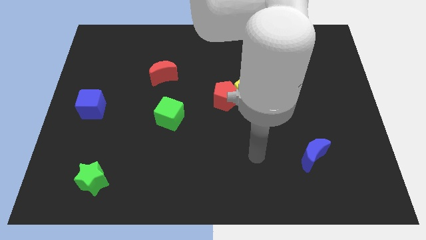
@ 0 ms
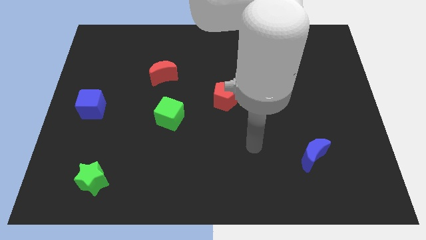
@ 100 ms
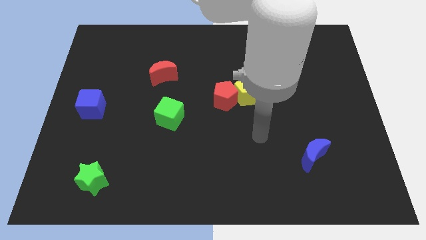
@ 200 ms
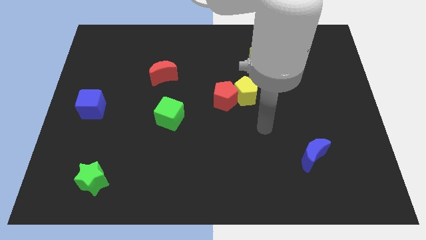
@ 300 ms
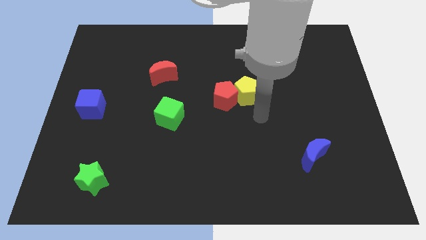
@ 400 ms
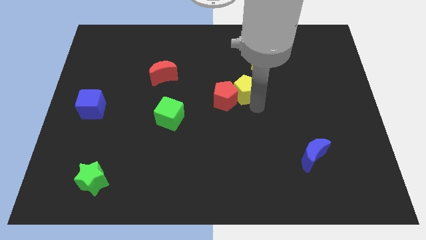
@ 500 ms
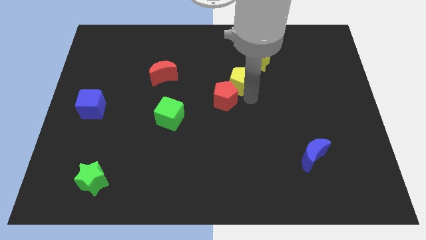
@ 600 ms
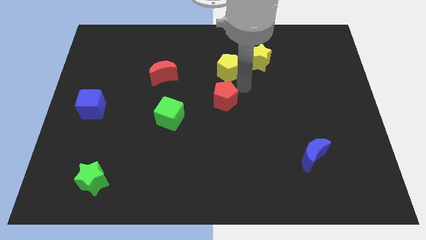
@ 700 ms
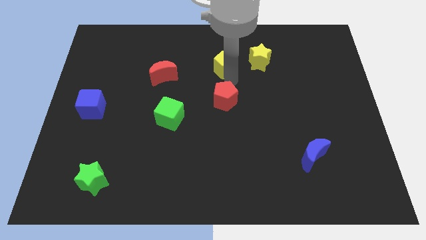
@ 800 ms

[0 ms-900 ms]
separate the red pentagon from the yellow pentagon

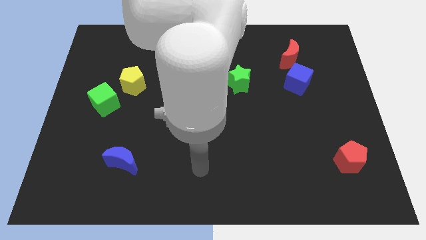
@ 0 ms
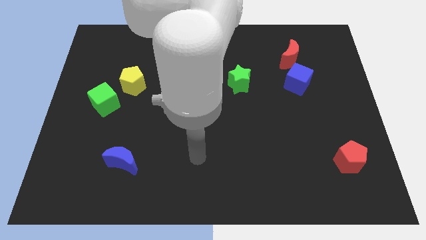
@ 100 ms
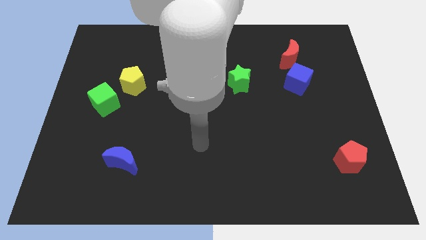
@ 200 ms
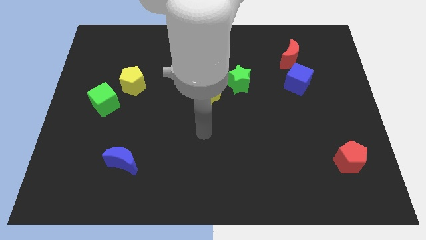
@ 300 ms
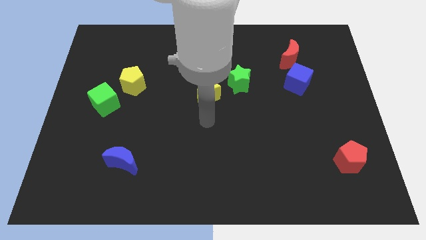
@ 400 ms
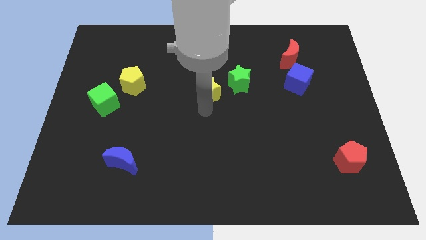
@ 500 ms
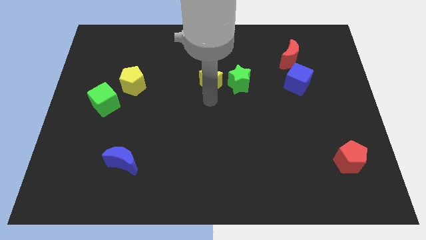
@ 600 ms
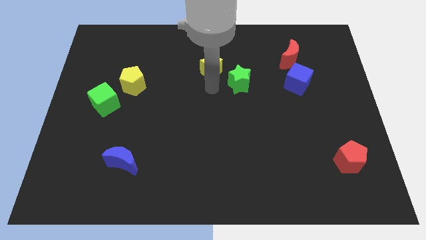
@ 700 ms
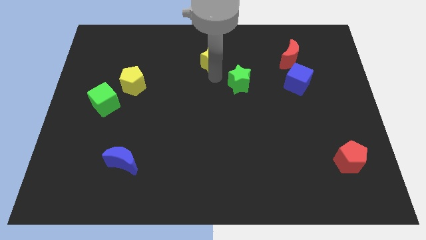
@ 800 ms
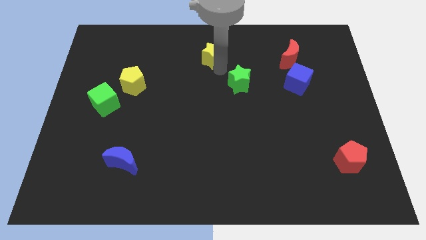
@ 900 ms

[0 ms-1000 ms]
separate the green star from the yellow star

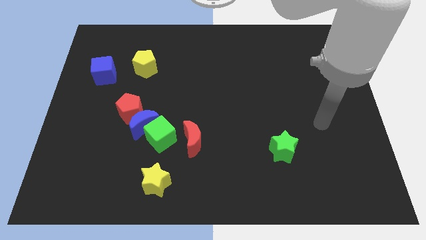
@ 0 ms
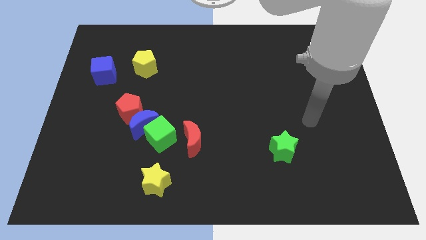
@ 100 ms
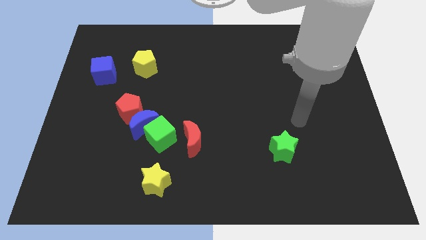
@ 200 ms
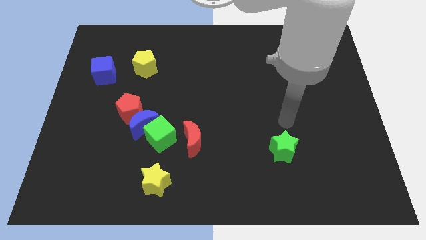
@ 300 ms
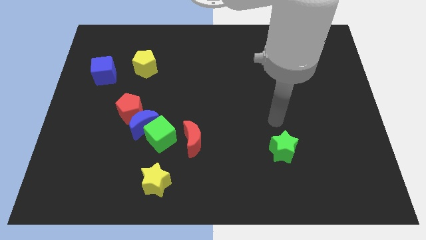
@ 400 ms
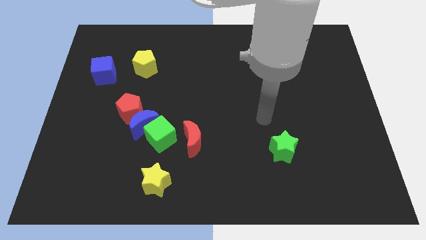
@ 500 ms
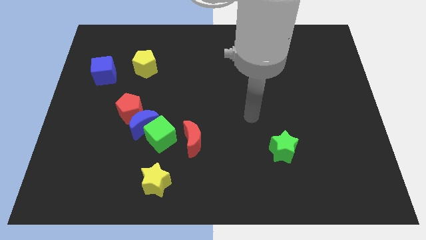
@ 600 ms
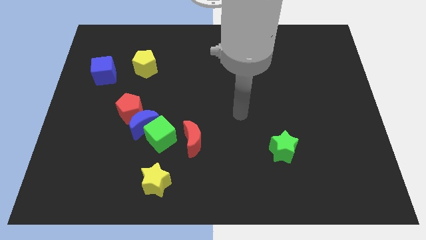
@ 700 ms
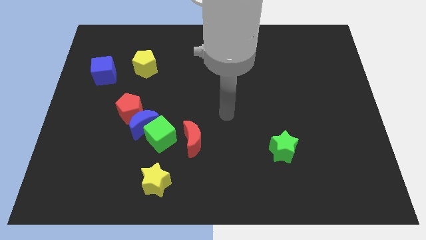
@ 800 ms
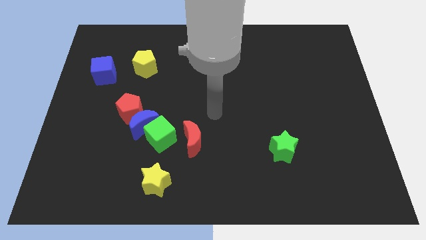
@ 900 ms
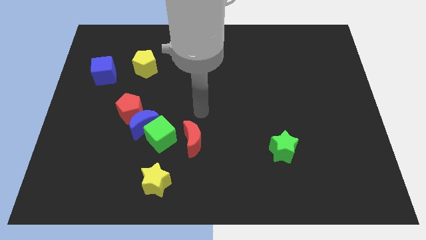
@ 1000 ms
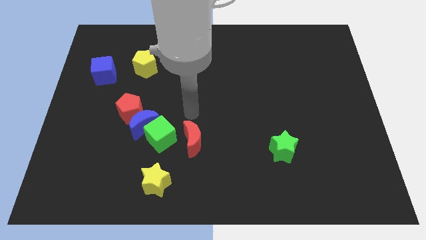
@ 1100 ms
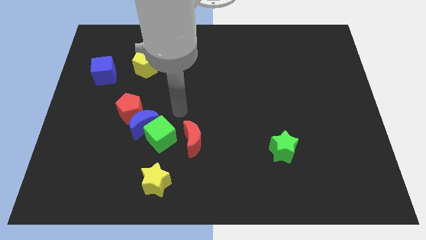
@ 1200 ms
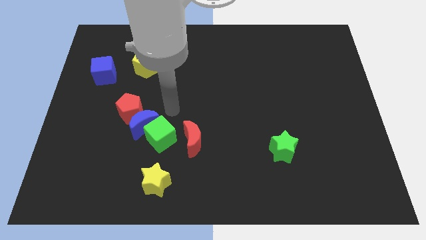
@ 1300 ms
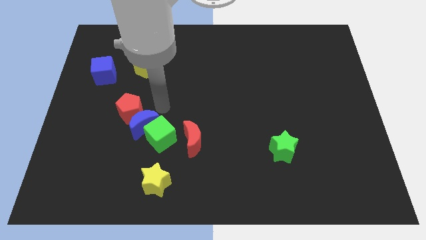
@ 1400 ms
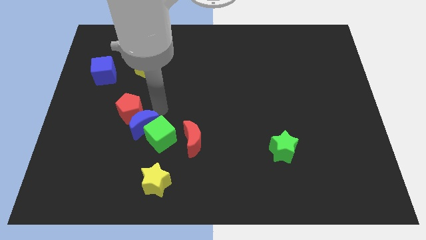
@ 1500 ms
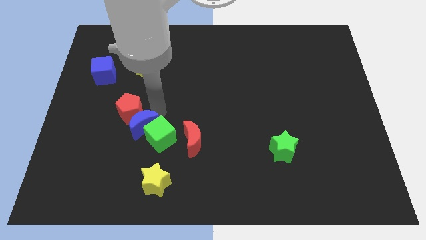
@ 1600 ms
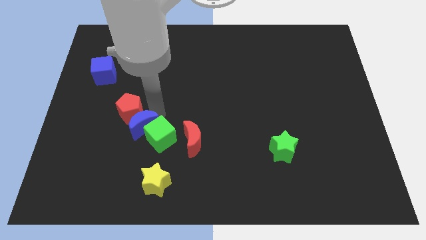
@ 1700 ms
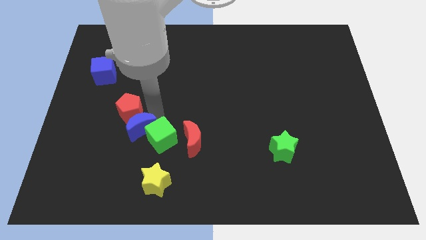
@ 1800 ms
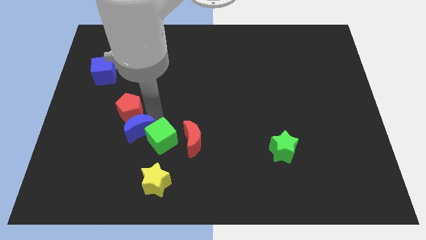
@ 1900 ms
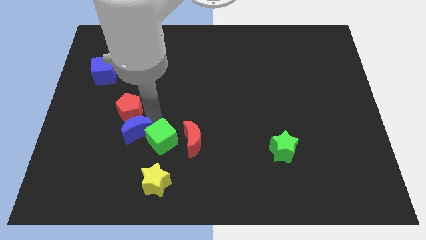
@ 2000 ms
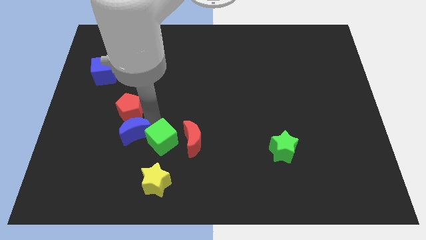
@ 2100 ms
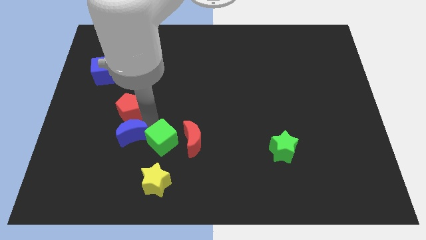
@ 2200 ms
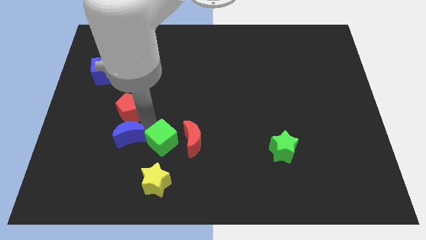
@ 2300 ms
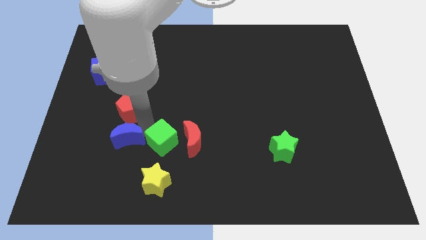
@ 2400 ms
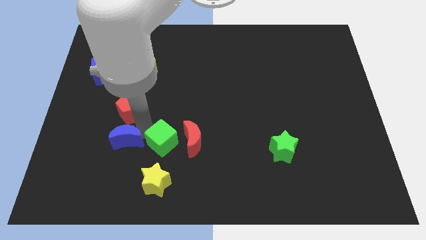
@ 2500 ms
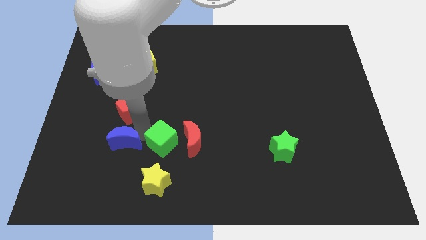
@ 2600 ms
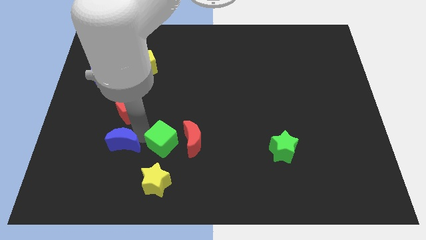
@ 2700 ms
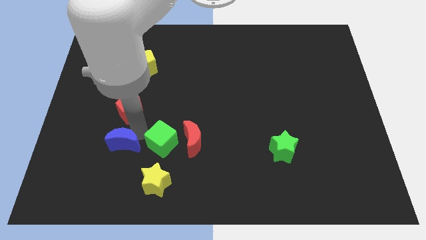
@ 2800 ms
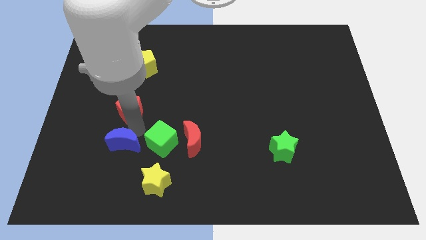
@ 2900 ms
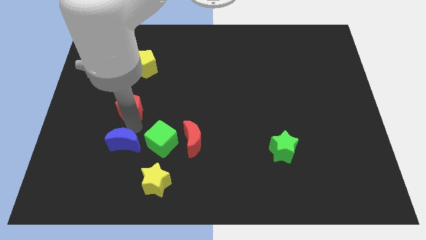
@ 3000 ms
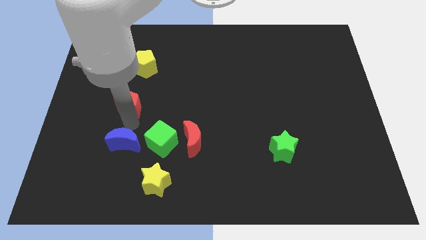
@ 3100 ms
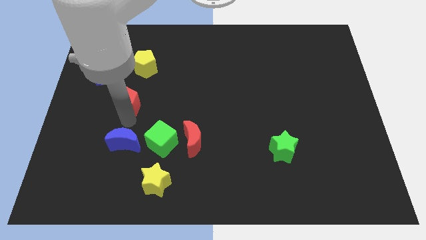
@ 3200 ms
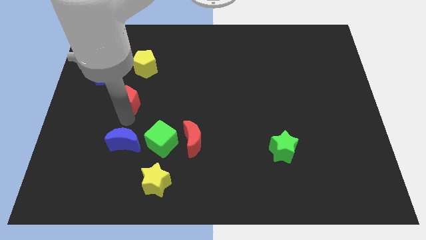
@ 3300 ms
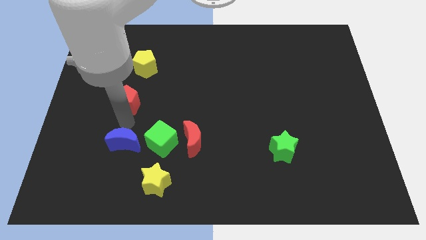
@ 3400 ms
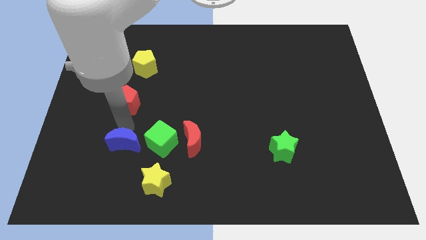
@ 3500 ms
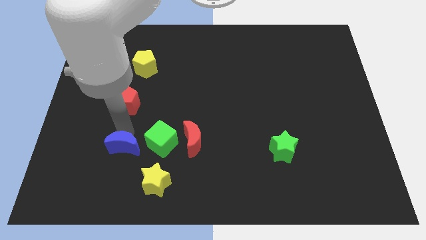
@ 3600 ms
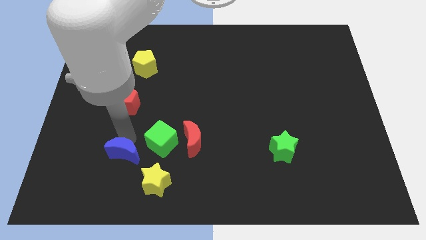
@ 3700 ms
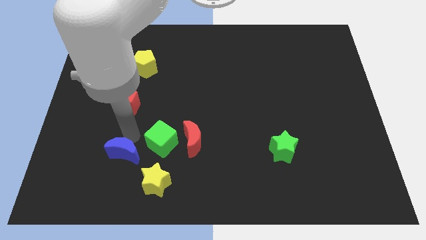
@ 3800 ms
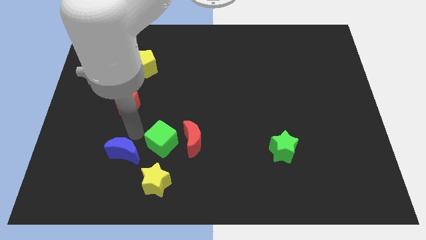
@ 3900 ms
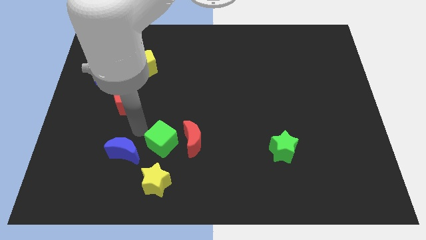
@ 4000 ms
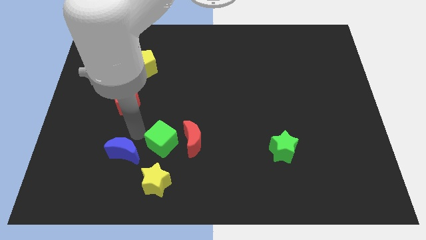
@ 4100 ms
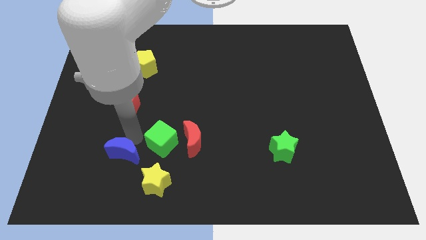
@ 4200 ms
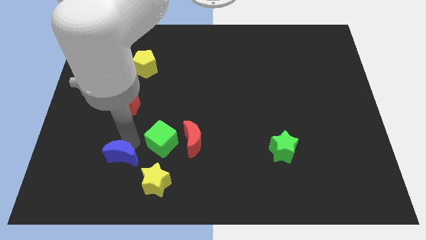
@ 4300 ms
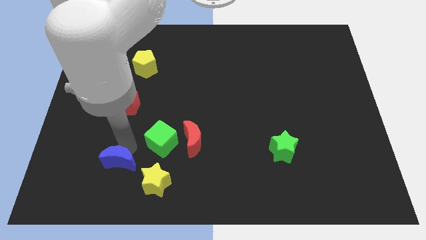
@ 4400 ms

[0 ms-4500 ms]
pull the blue moon apart from the green cube and red pentagon

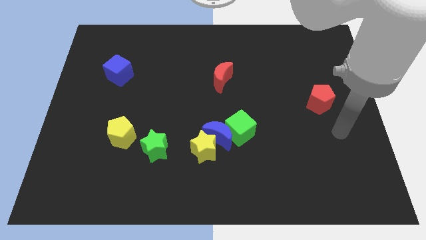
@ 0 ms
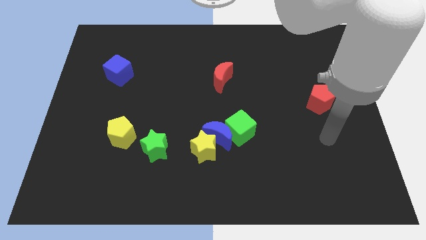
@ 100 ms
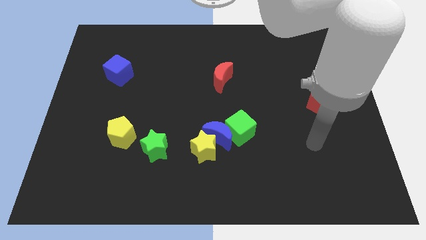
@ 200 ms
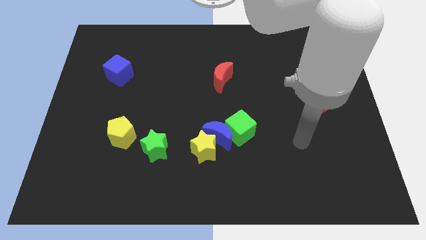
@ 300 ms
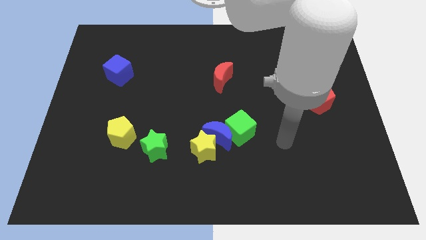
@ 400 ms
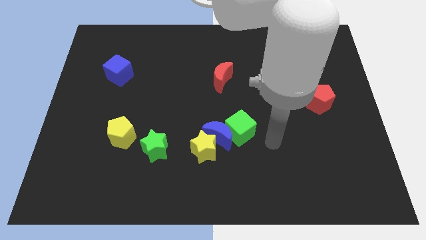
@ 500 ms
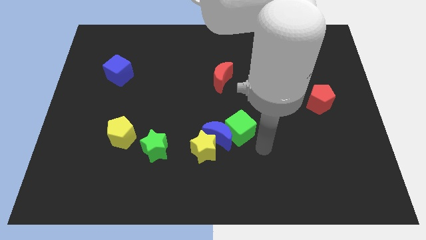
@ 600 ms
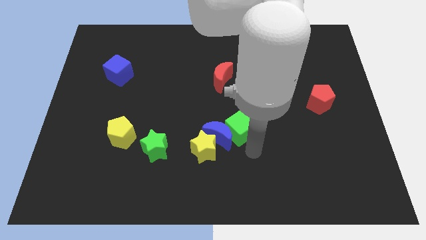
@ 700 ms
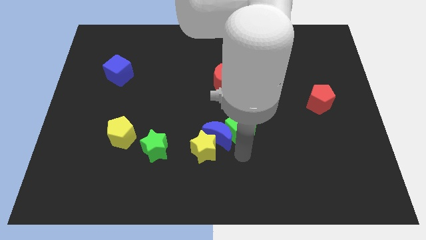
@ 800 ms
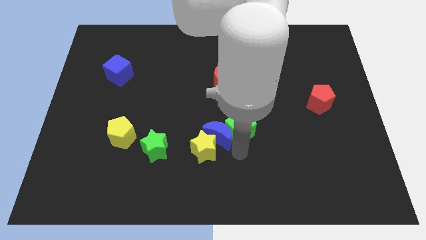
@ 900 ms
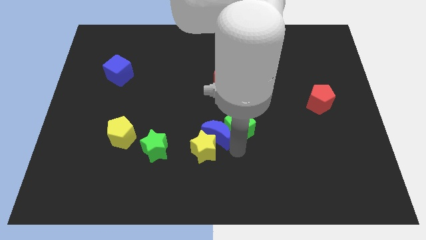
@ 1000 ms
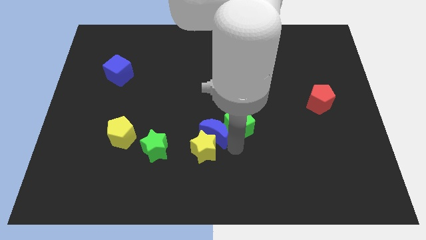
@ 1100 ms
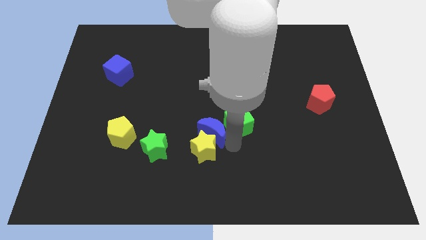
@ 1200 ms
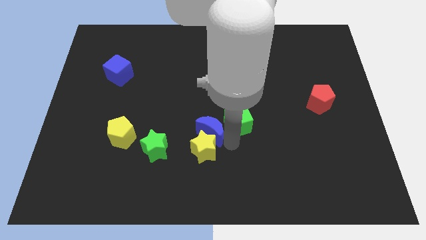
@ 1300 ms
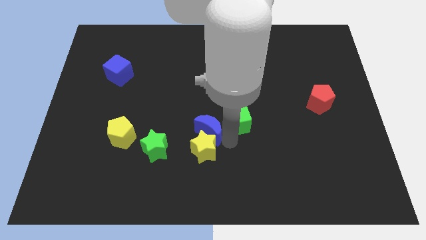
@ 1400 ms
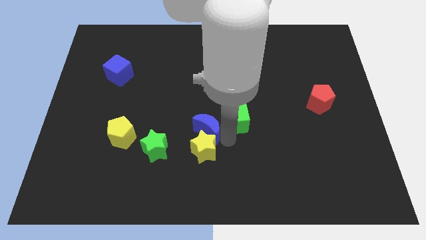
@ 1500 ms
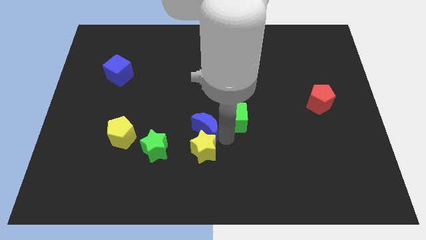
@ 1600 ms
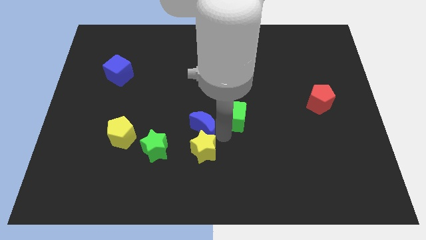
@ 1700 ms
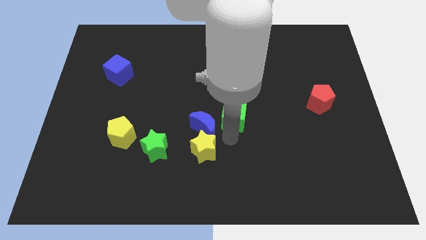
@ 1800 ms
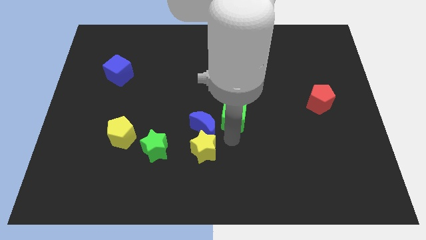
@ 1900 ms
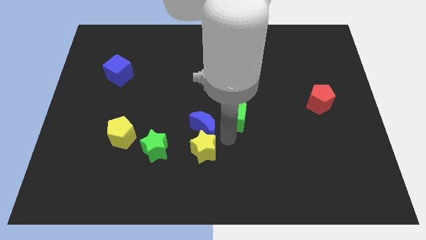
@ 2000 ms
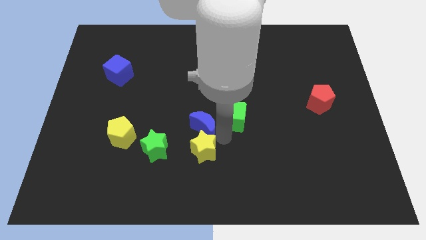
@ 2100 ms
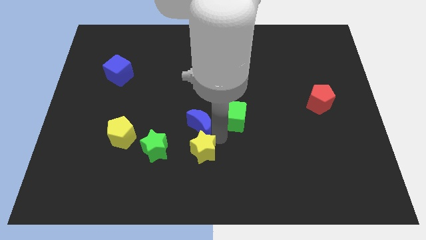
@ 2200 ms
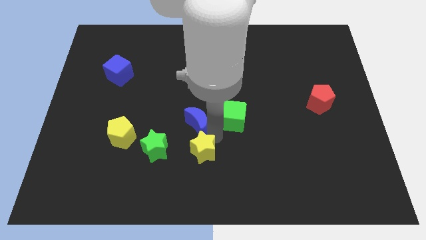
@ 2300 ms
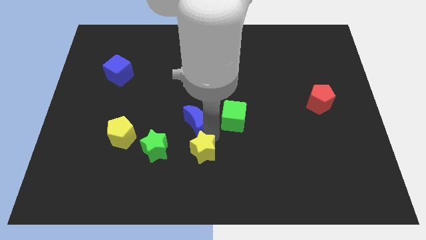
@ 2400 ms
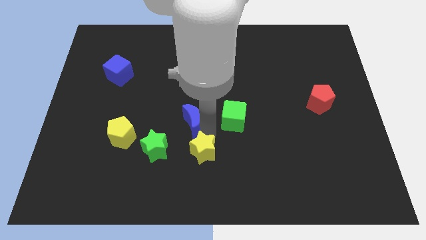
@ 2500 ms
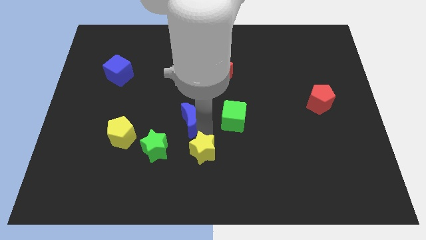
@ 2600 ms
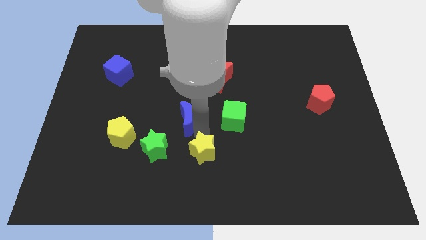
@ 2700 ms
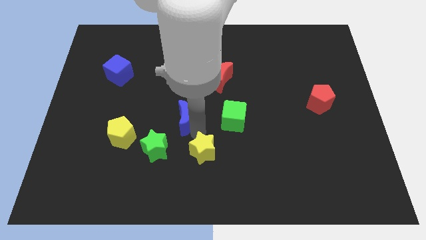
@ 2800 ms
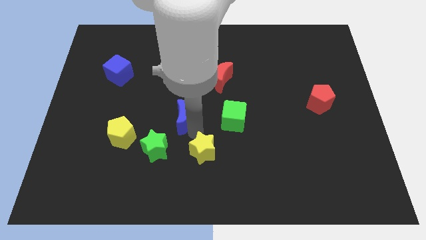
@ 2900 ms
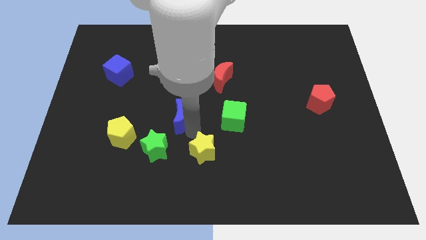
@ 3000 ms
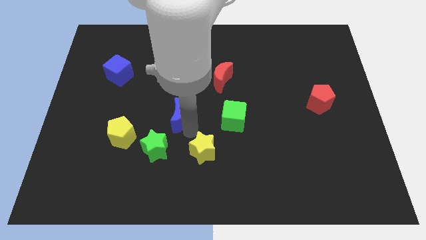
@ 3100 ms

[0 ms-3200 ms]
separate the blue moon from the yellow star and green cube
